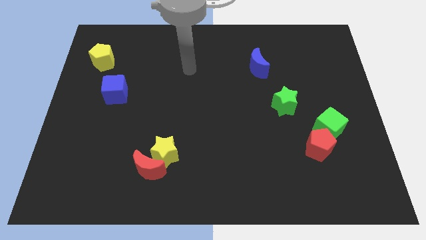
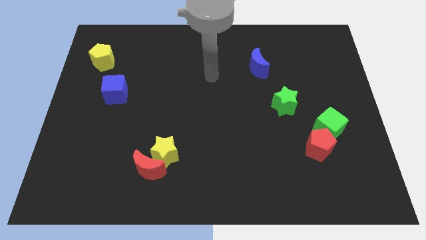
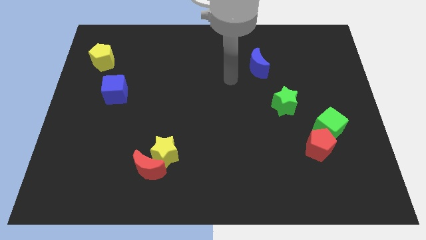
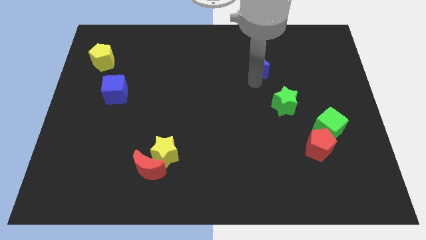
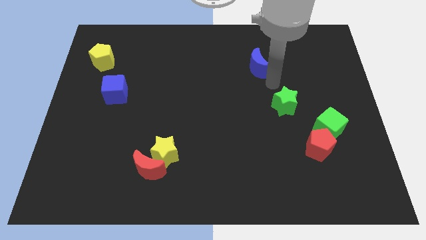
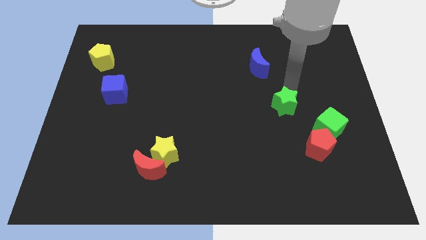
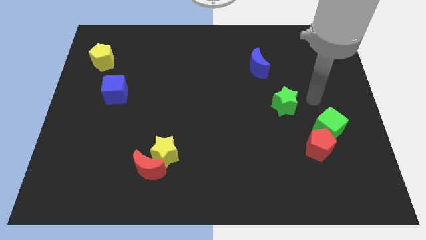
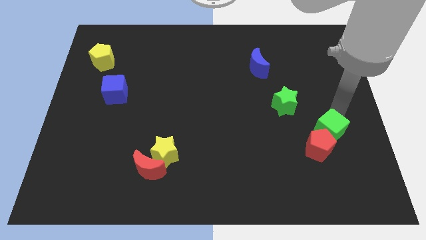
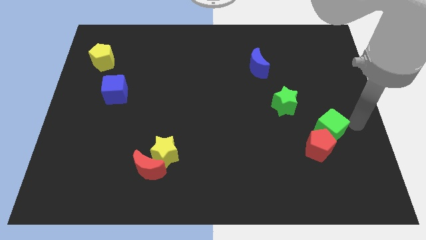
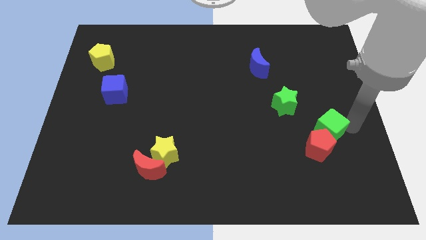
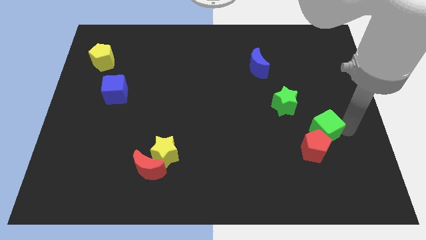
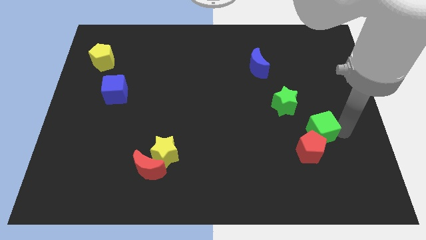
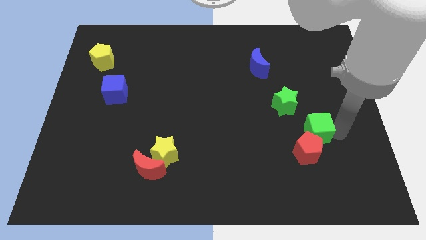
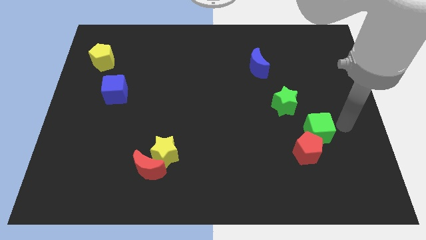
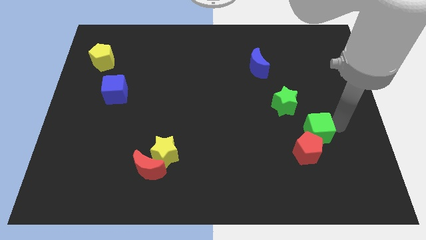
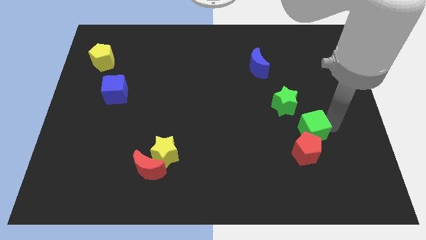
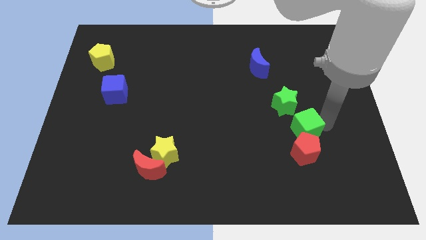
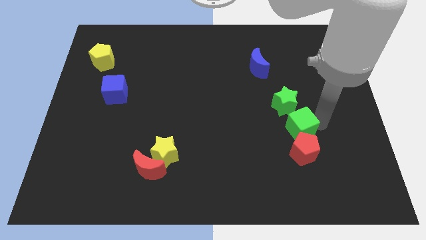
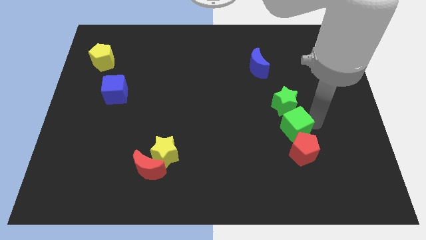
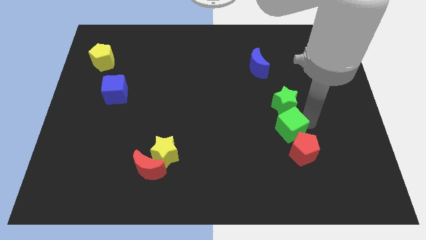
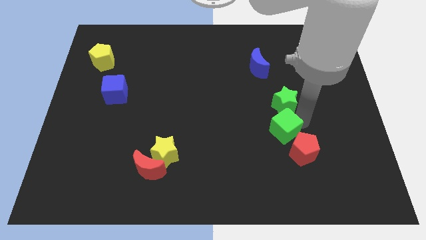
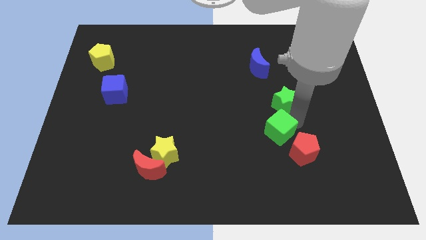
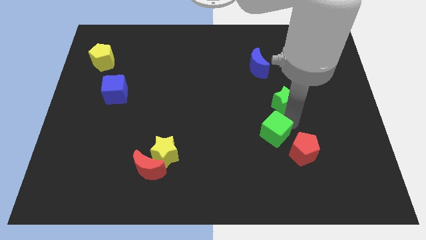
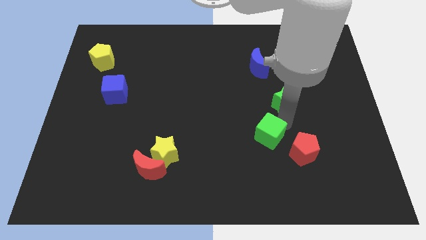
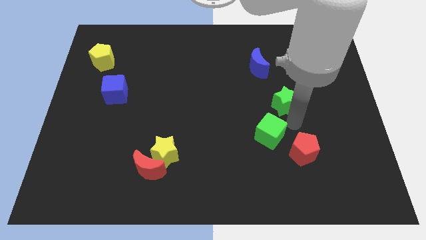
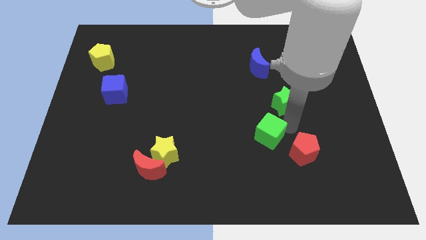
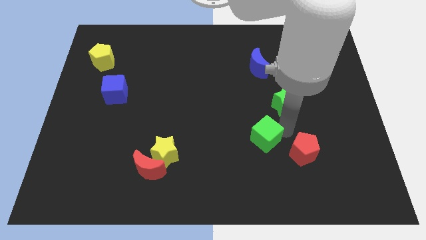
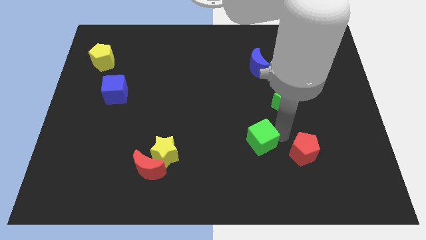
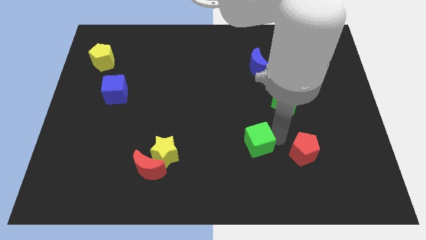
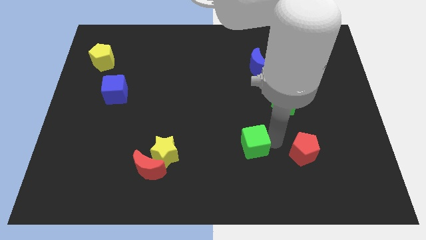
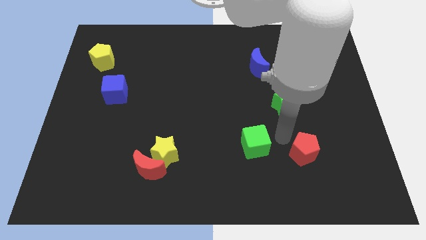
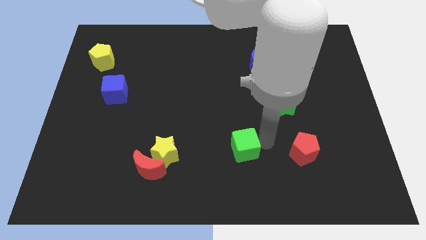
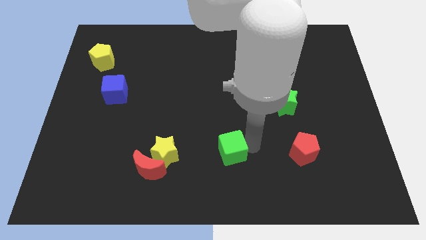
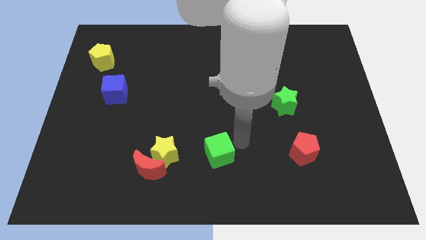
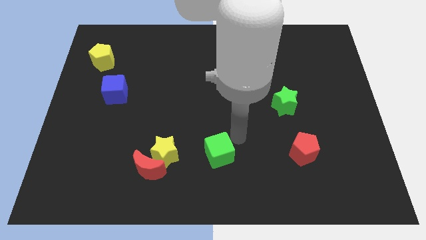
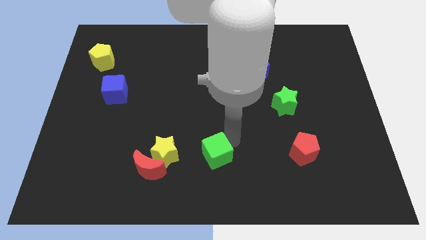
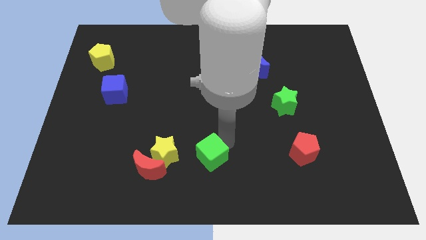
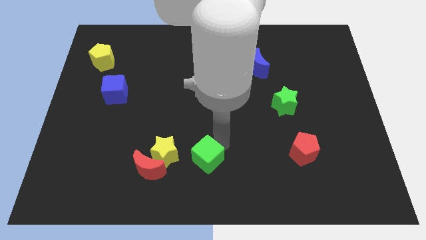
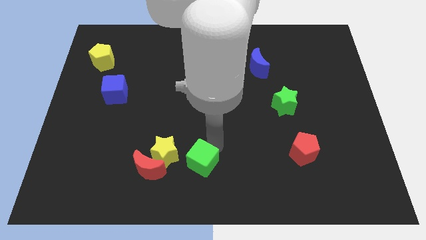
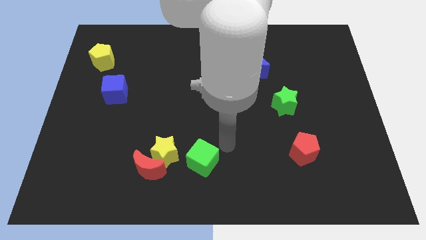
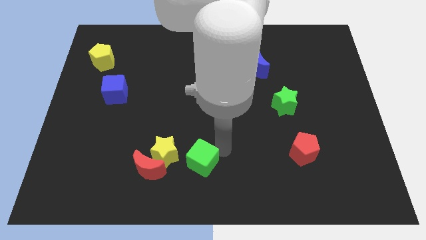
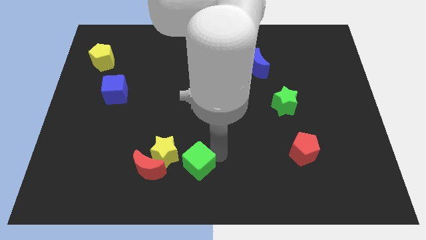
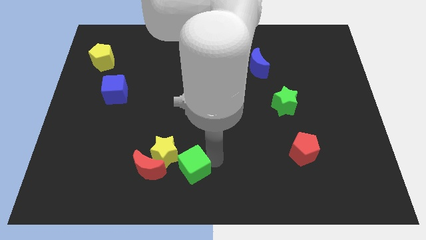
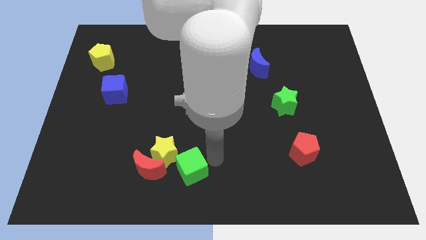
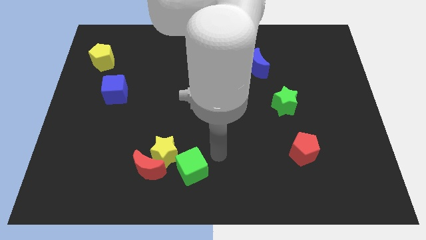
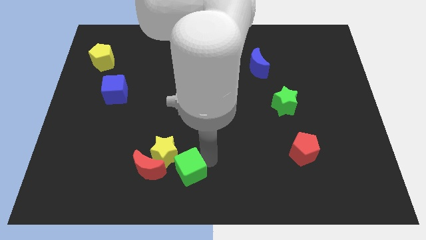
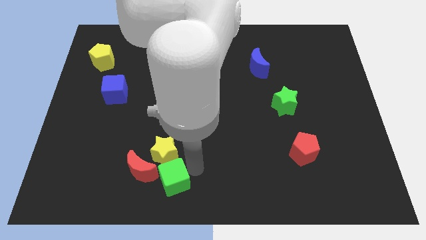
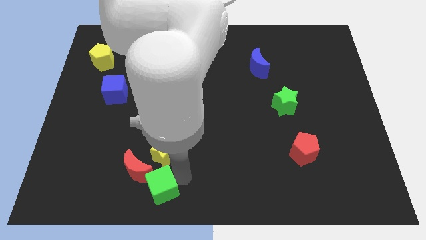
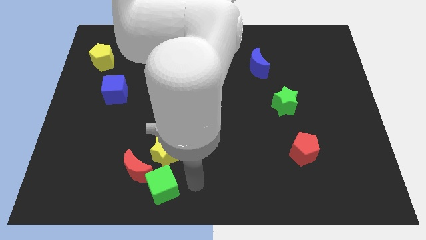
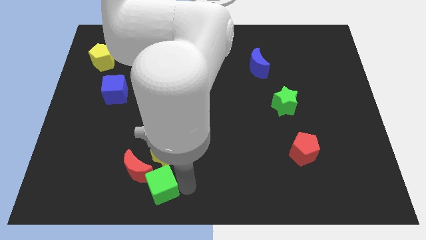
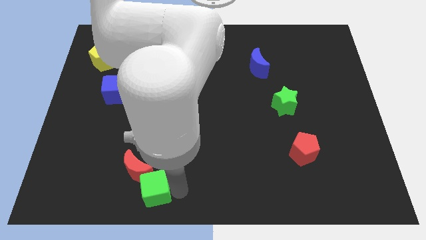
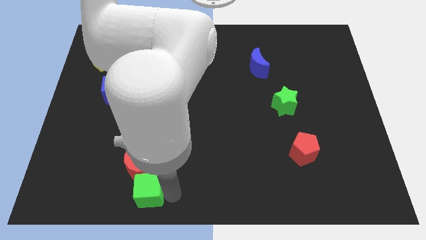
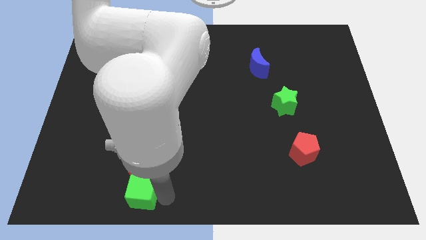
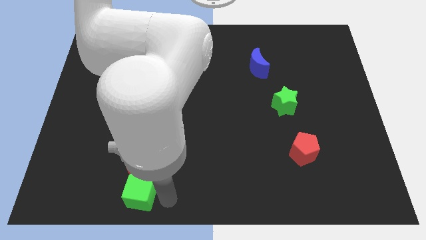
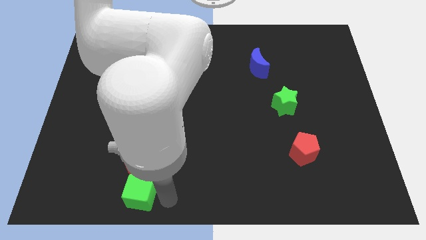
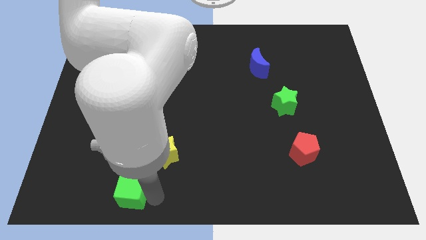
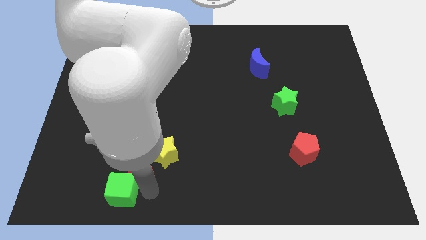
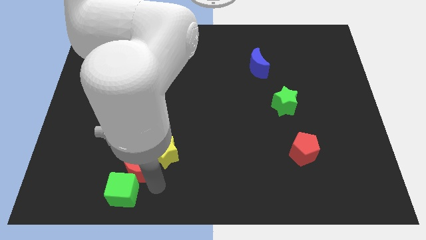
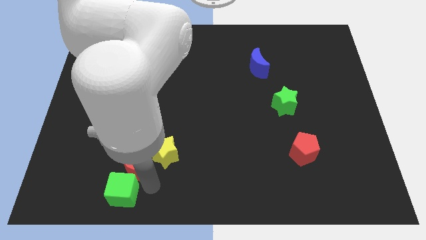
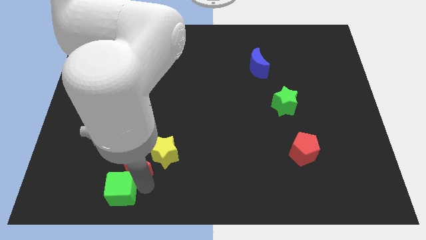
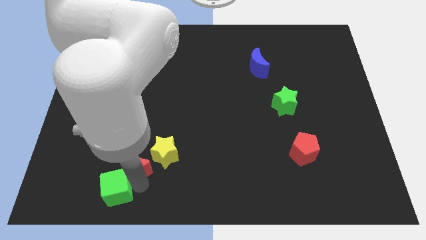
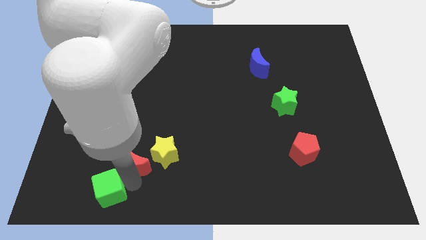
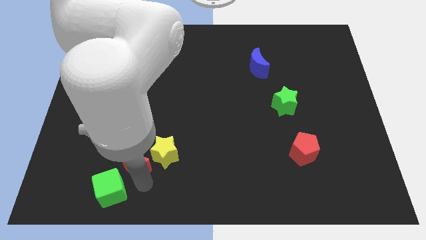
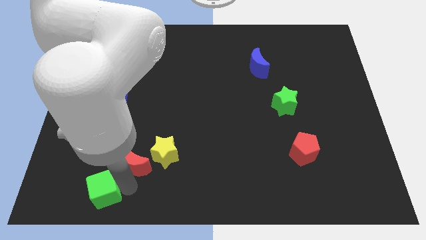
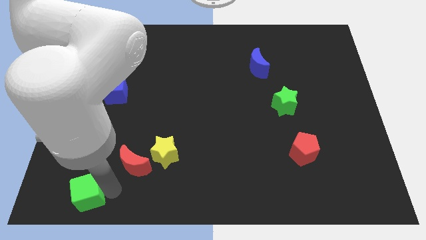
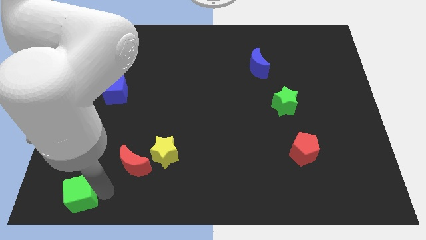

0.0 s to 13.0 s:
move the green cube to the bottom left of the board
